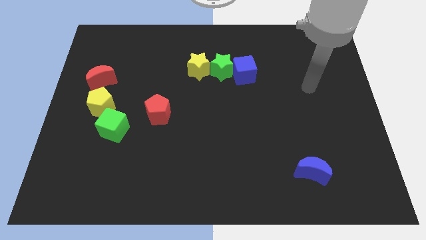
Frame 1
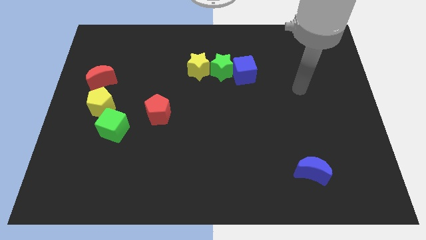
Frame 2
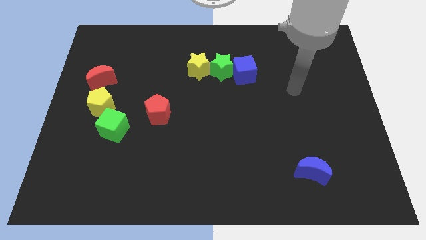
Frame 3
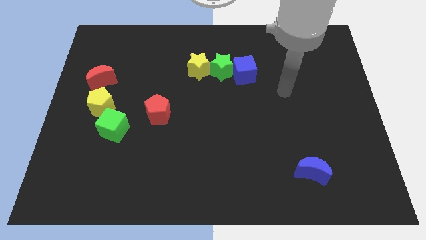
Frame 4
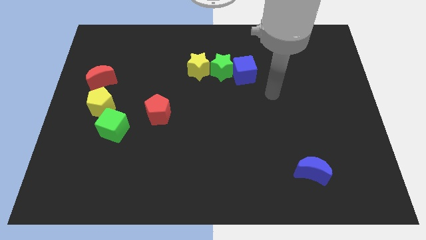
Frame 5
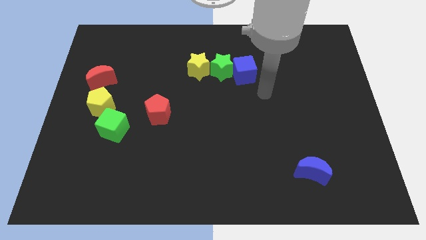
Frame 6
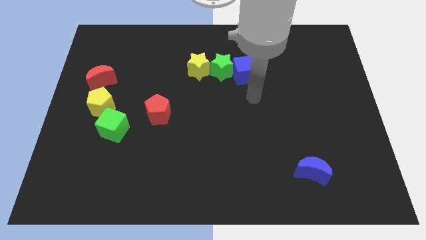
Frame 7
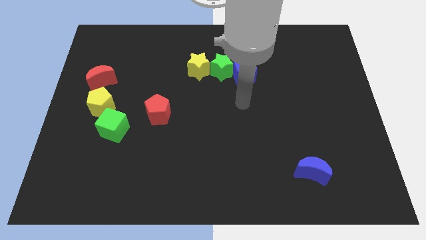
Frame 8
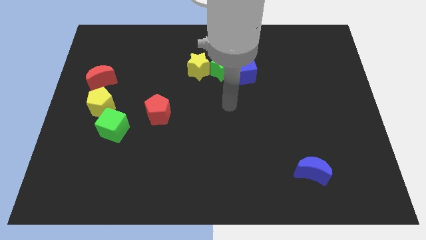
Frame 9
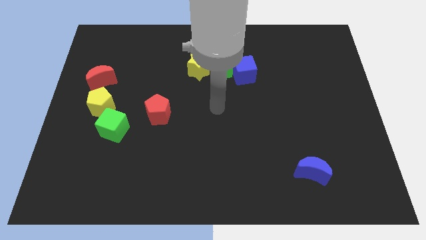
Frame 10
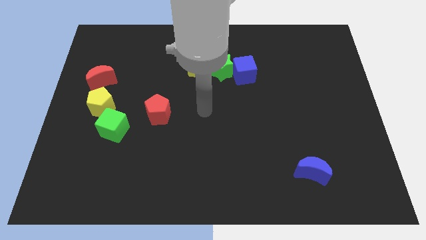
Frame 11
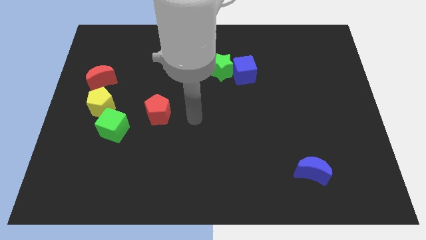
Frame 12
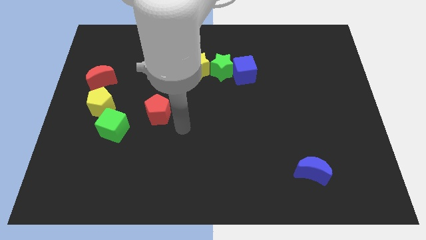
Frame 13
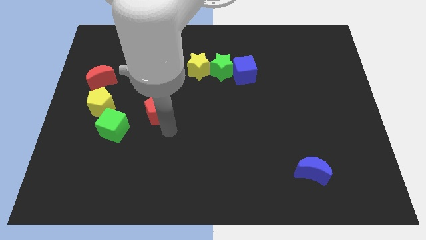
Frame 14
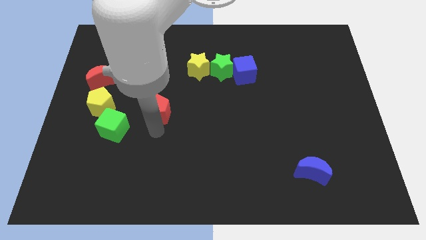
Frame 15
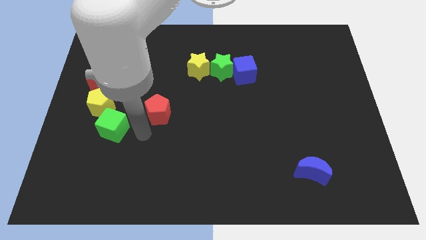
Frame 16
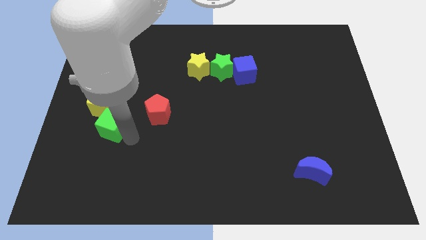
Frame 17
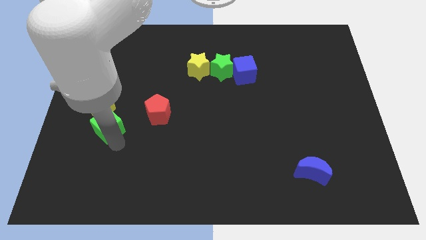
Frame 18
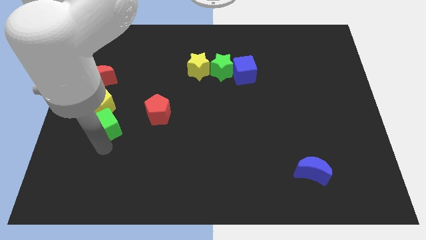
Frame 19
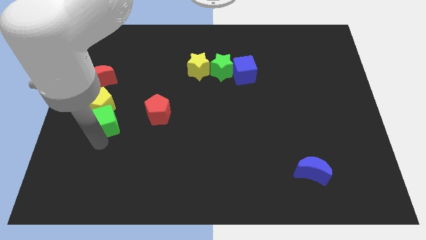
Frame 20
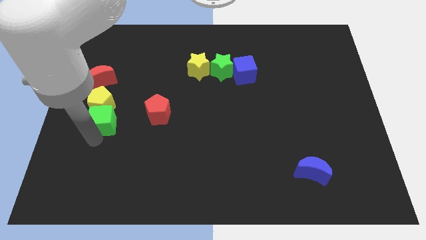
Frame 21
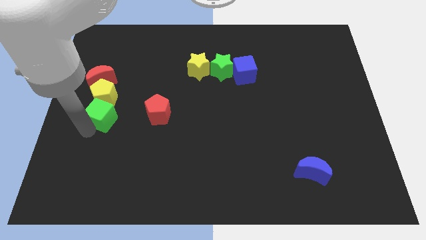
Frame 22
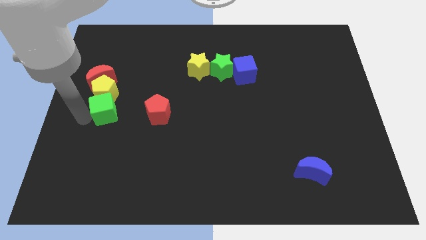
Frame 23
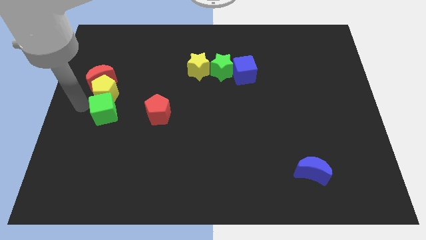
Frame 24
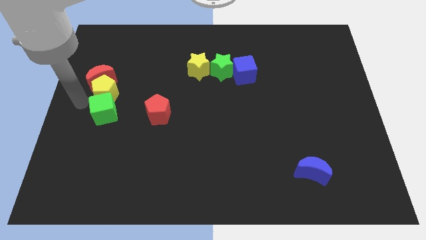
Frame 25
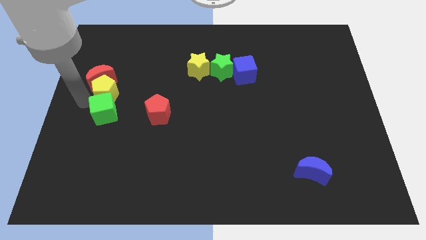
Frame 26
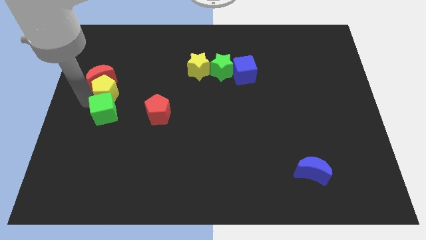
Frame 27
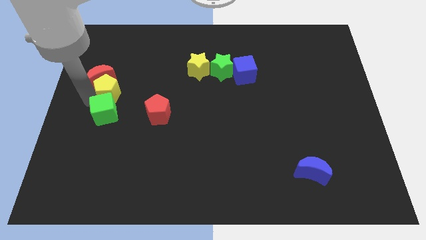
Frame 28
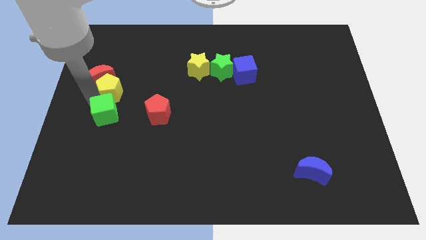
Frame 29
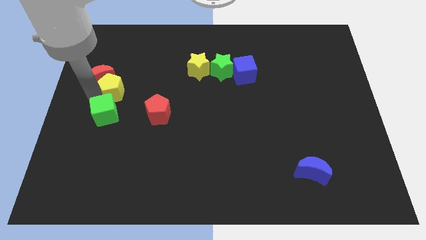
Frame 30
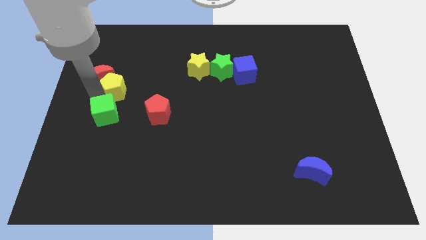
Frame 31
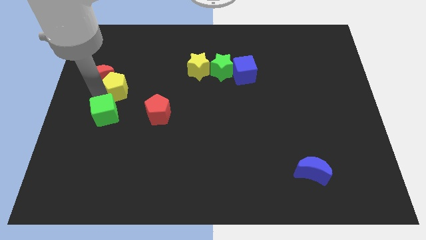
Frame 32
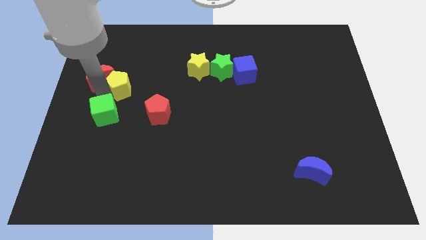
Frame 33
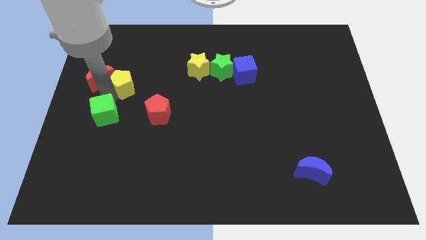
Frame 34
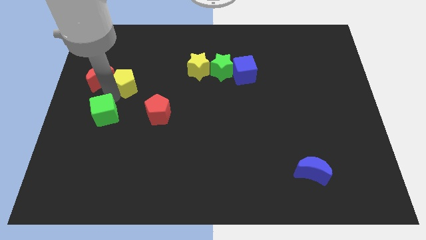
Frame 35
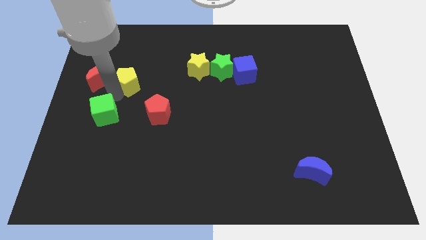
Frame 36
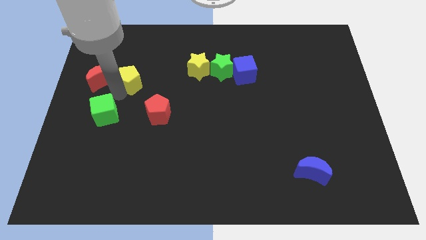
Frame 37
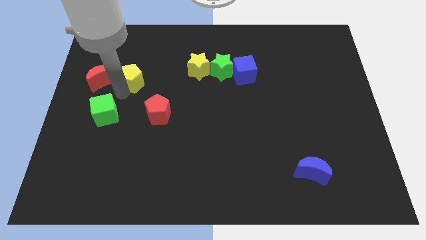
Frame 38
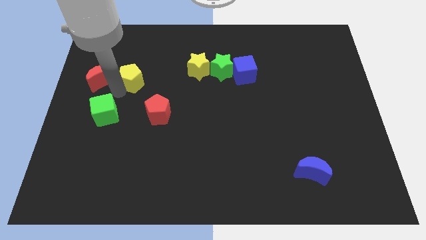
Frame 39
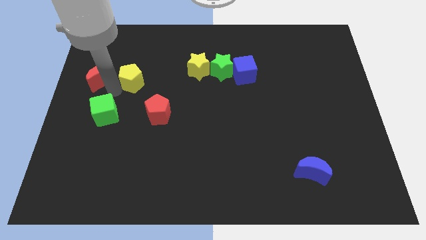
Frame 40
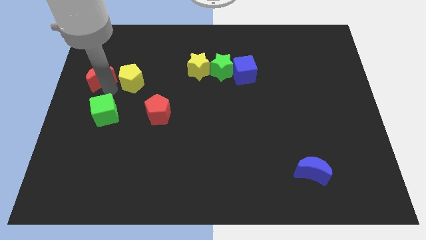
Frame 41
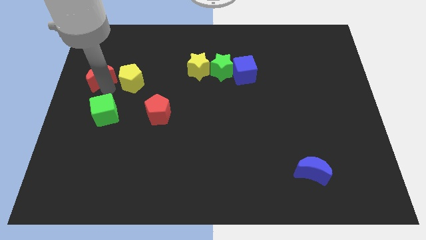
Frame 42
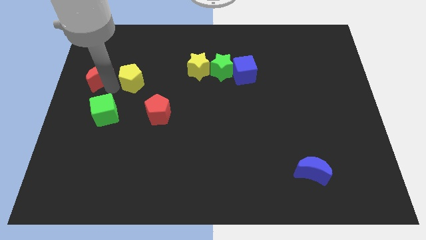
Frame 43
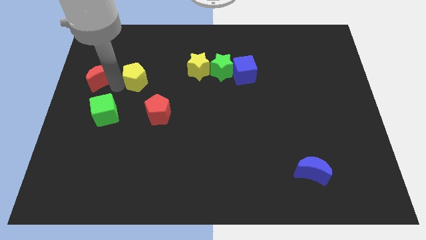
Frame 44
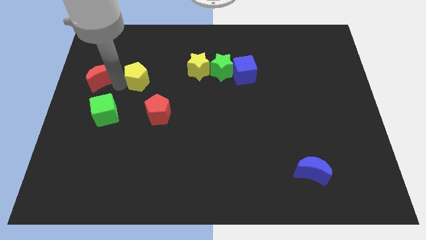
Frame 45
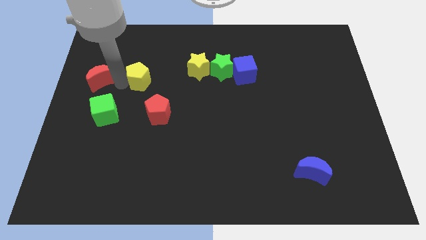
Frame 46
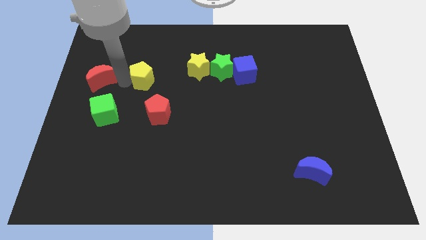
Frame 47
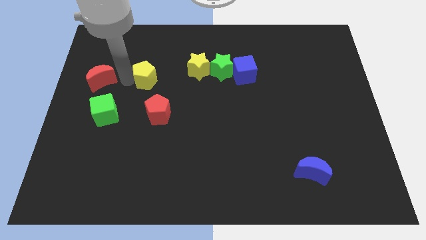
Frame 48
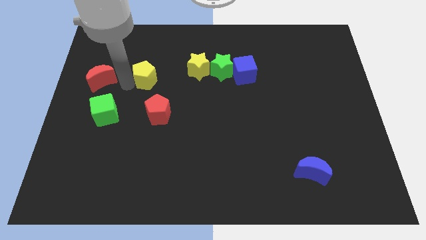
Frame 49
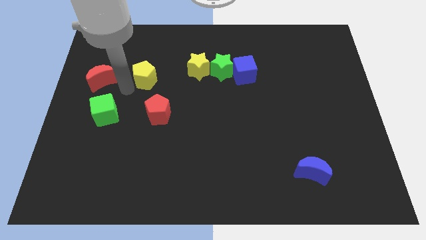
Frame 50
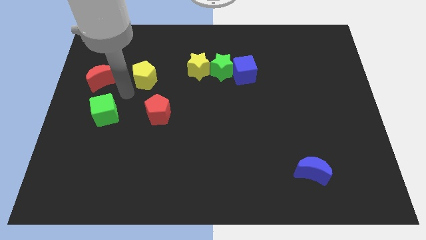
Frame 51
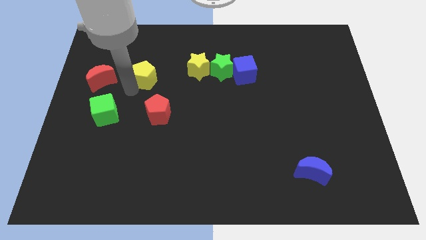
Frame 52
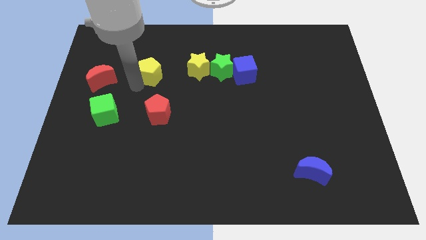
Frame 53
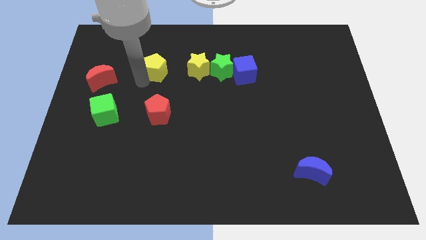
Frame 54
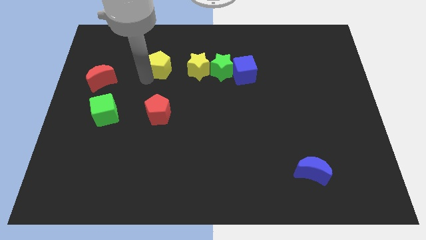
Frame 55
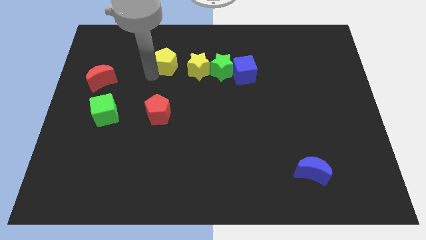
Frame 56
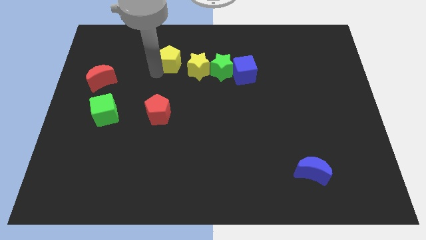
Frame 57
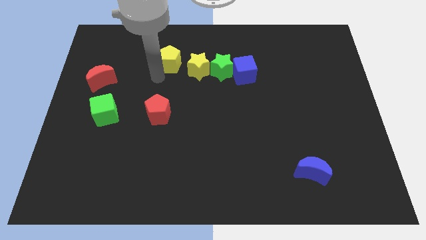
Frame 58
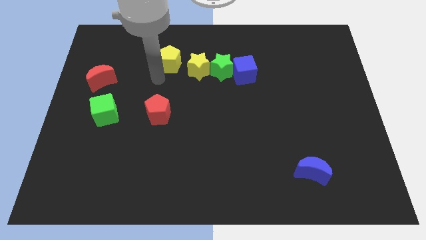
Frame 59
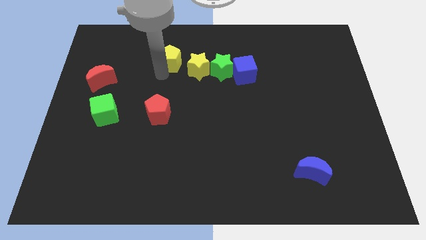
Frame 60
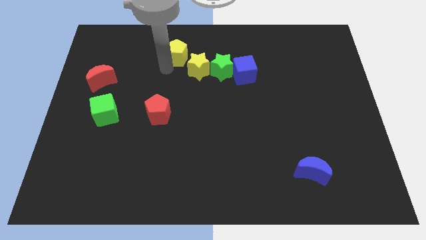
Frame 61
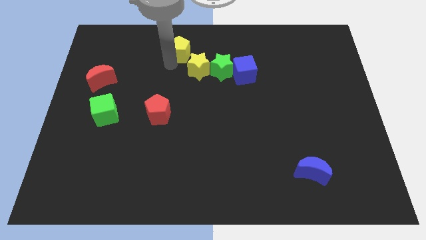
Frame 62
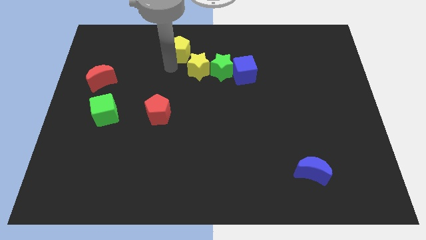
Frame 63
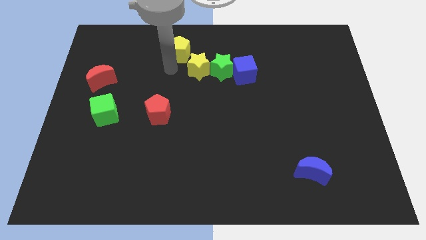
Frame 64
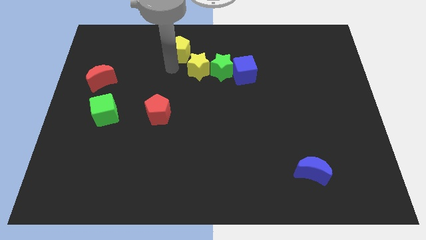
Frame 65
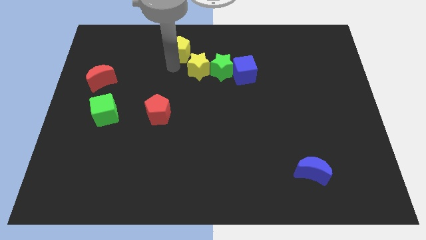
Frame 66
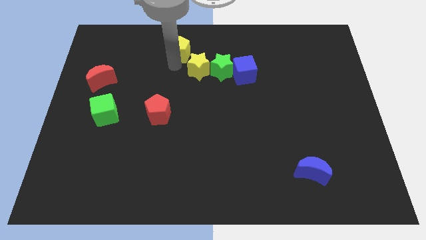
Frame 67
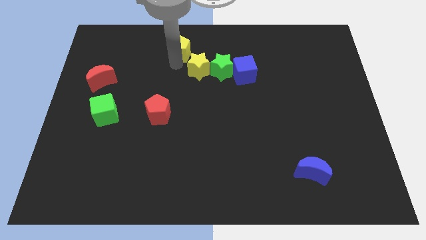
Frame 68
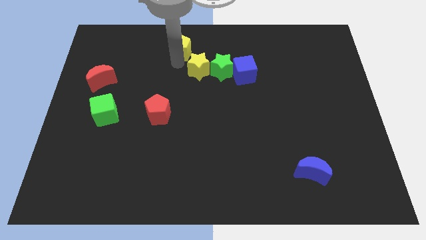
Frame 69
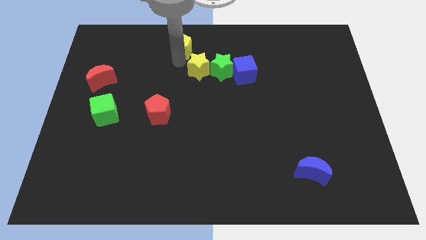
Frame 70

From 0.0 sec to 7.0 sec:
push the yellow pentagon to the towards your base

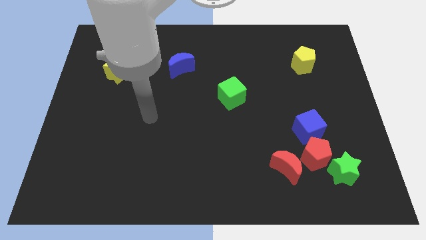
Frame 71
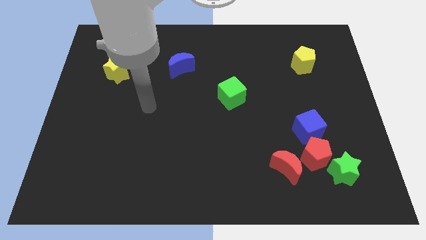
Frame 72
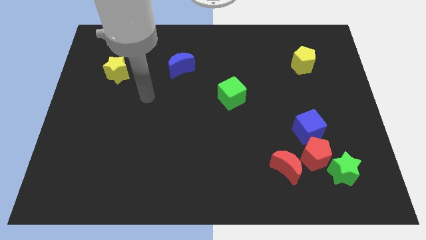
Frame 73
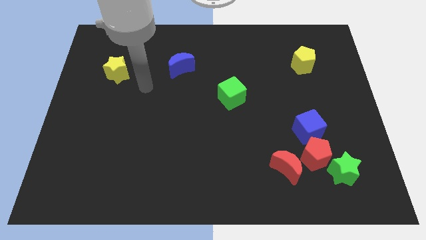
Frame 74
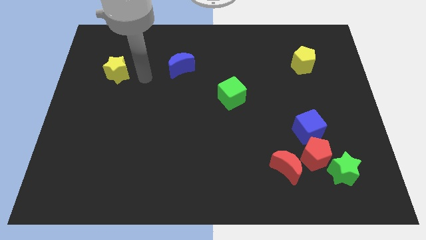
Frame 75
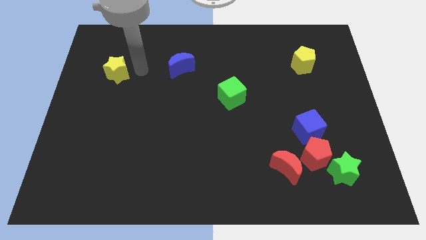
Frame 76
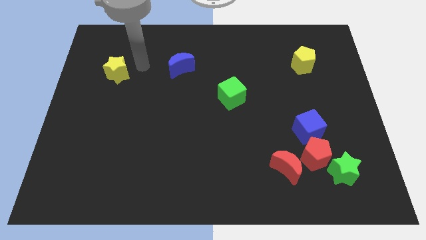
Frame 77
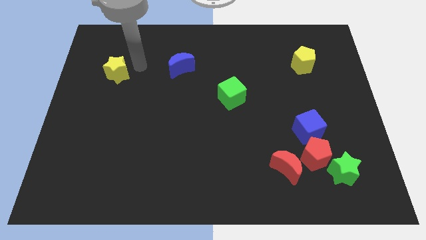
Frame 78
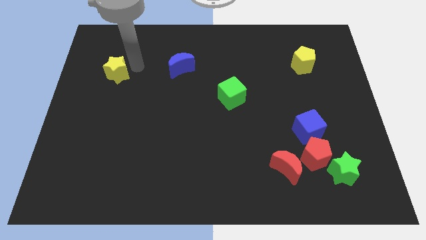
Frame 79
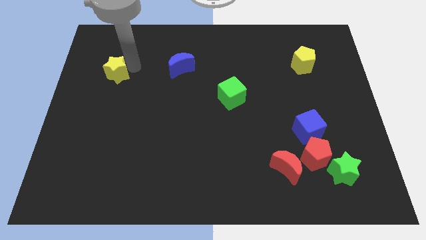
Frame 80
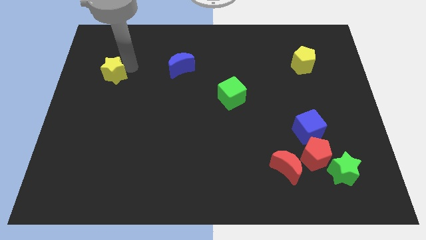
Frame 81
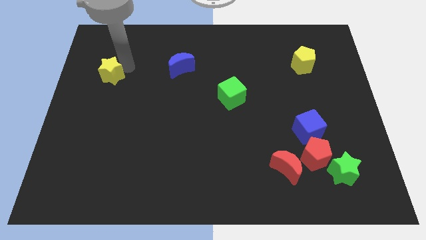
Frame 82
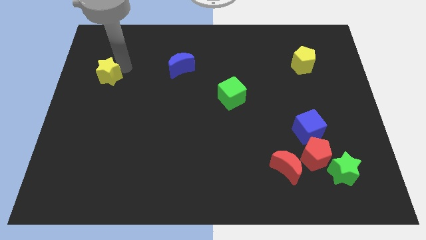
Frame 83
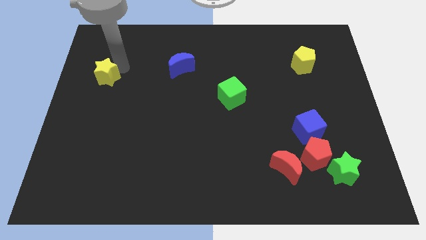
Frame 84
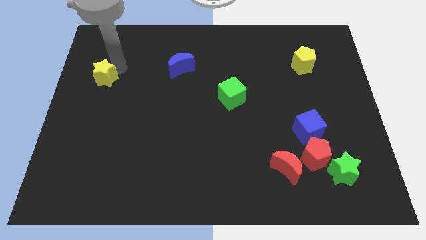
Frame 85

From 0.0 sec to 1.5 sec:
slide the yellow star to the left side
